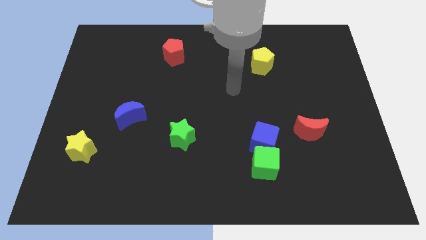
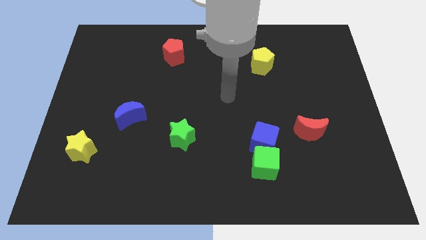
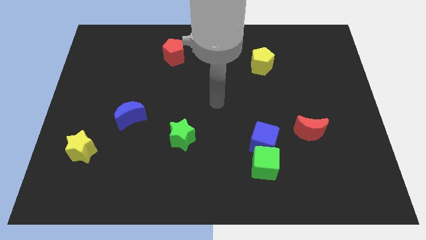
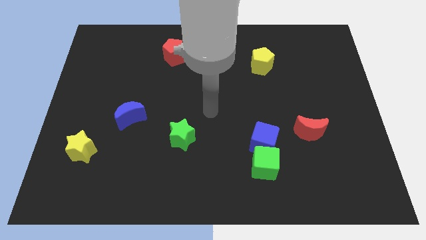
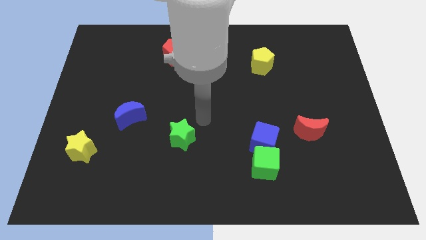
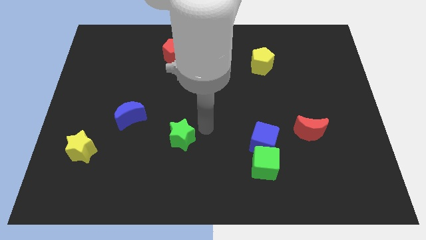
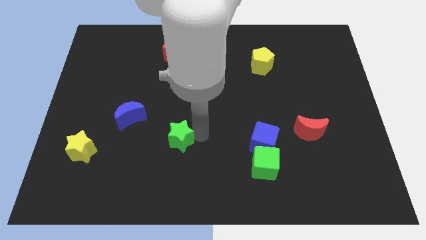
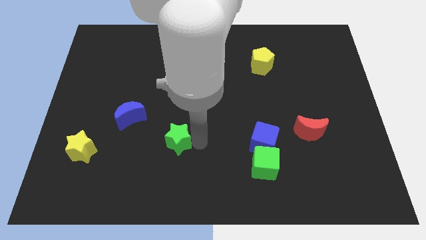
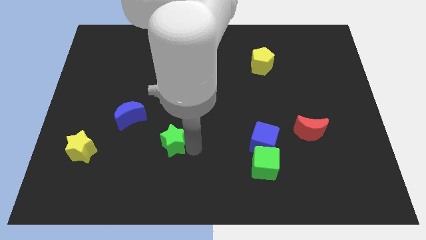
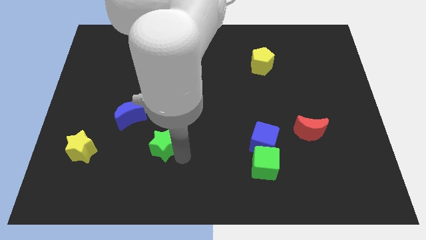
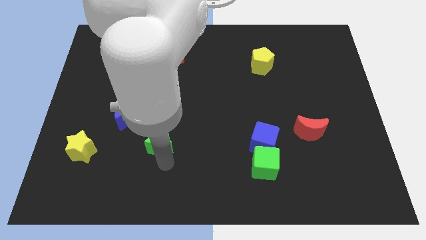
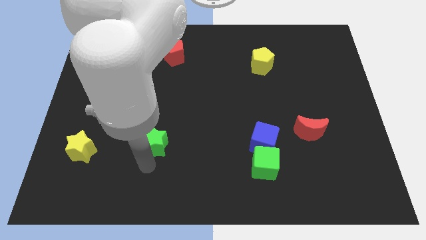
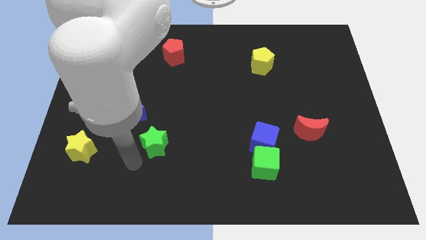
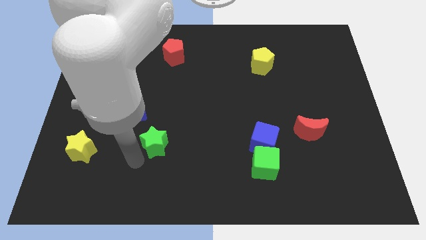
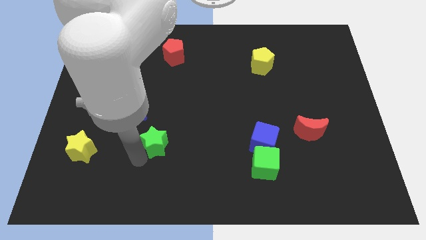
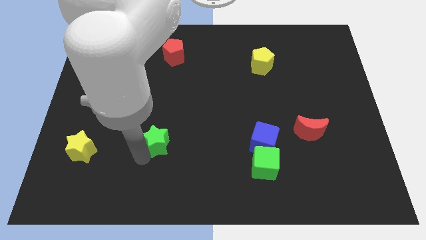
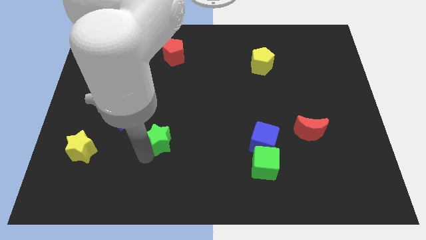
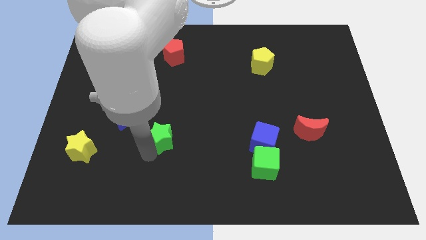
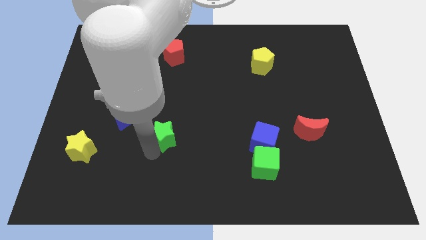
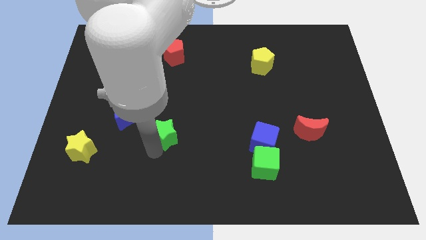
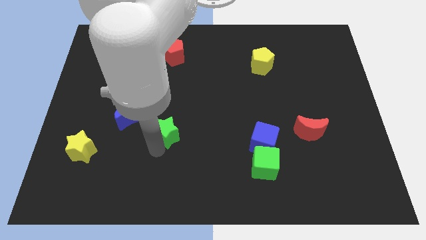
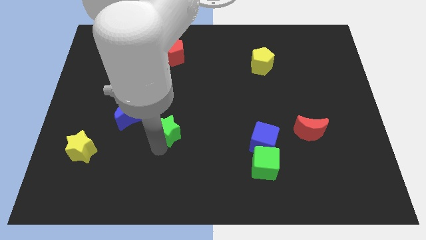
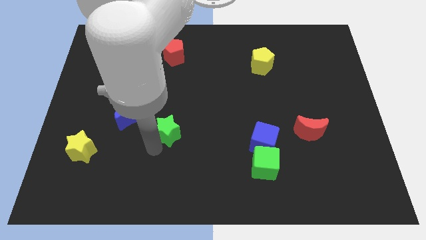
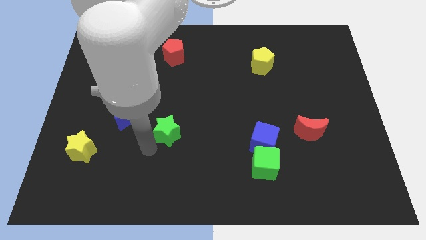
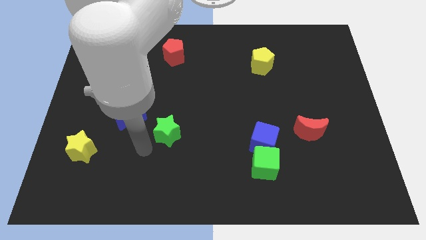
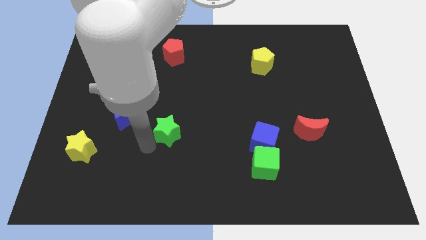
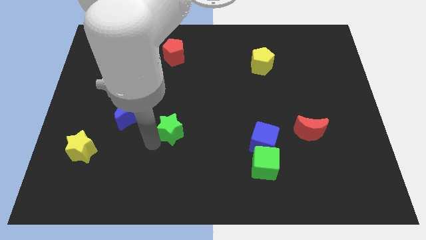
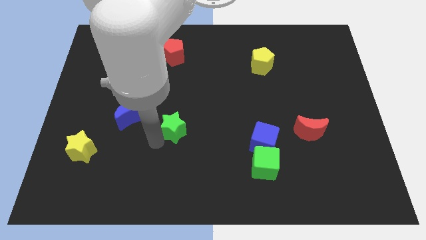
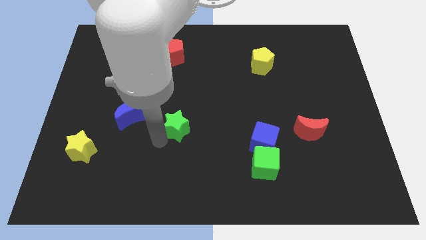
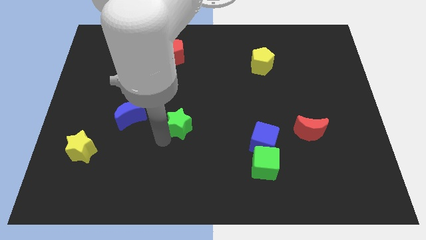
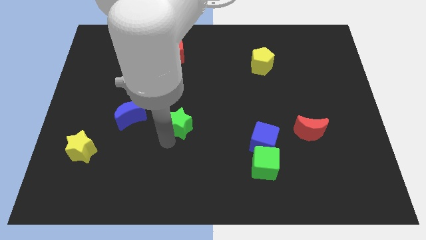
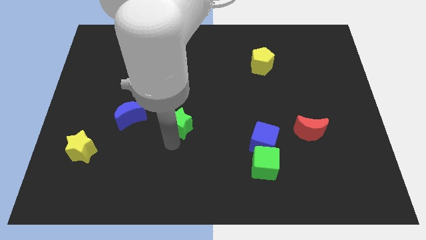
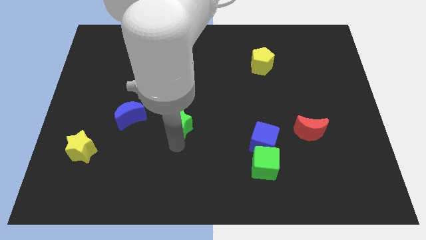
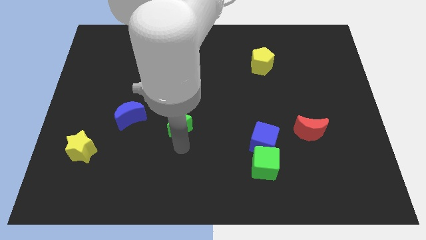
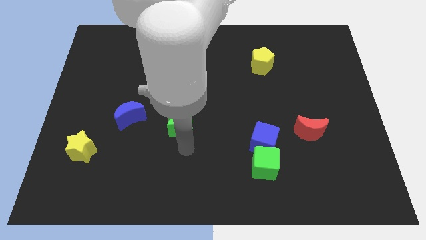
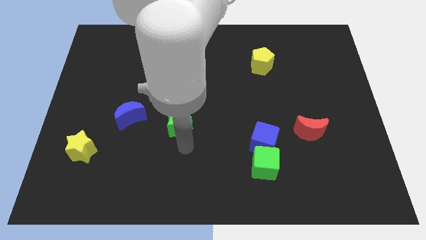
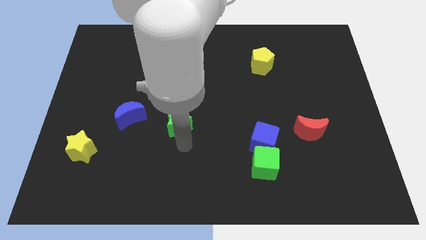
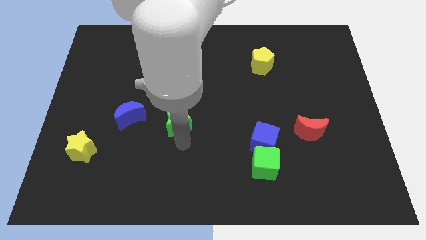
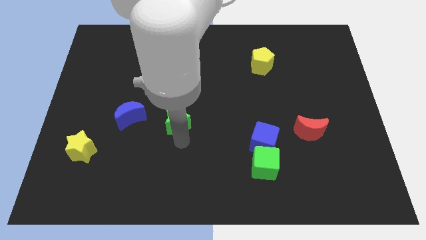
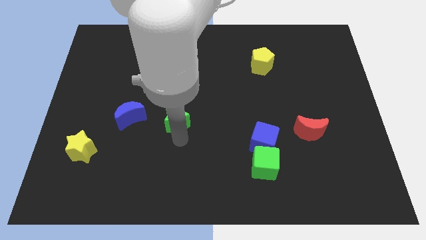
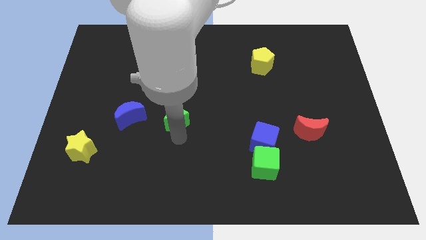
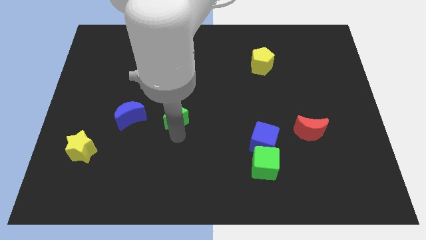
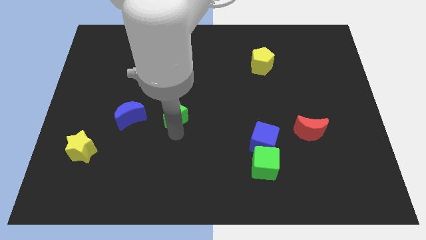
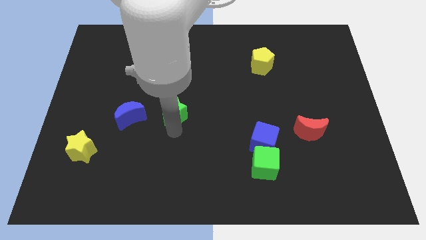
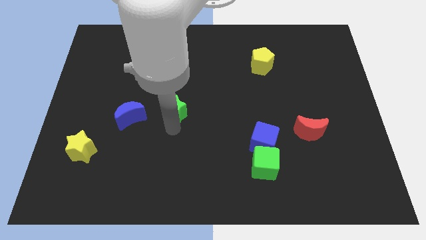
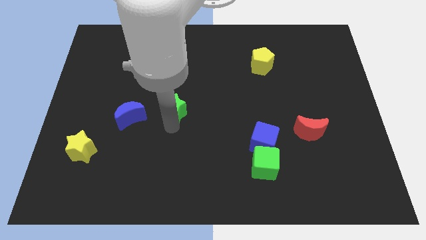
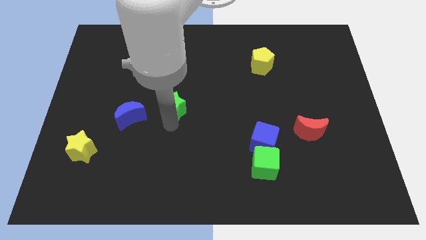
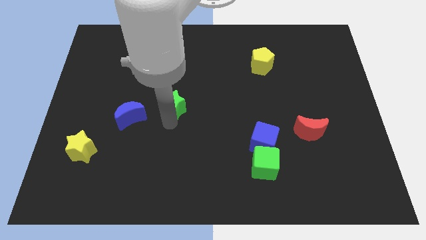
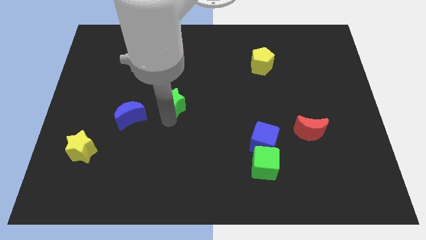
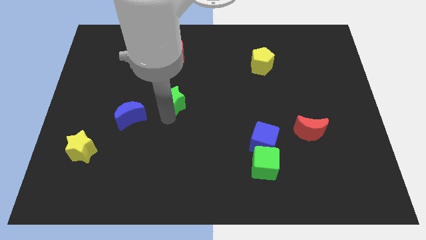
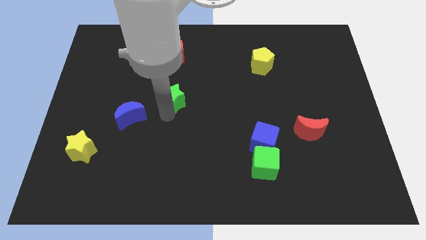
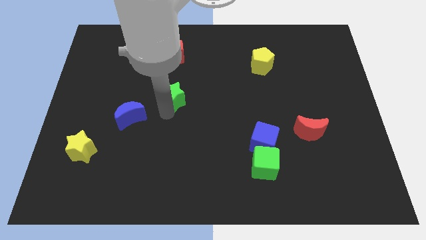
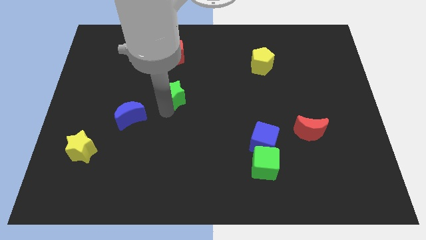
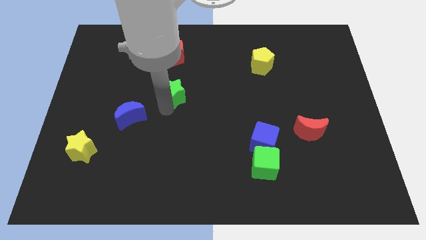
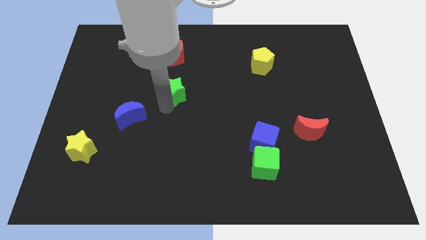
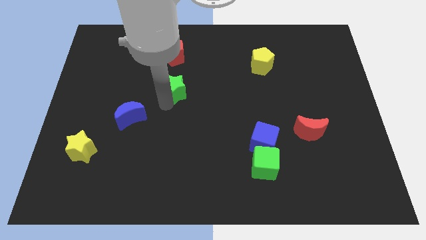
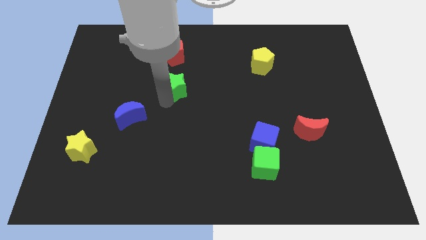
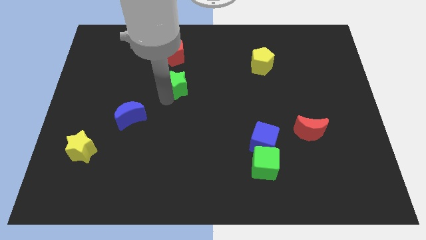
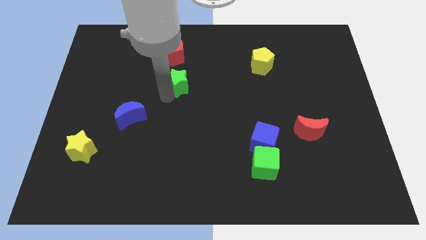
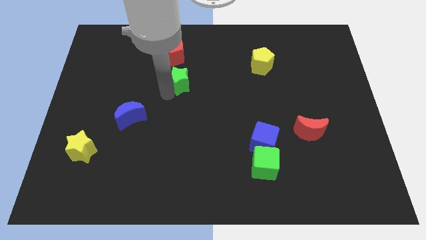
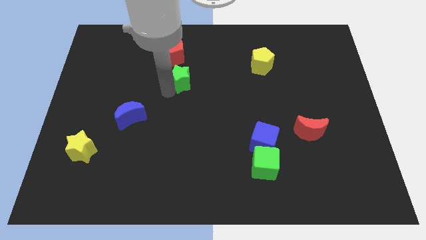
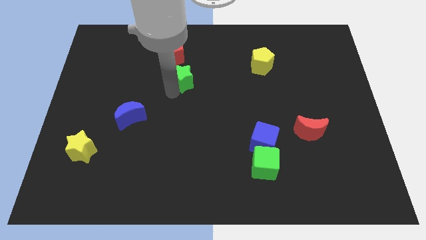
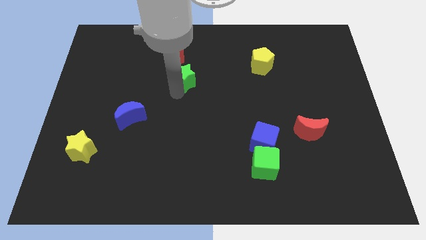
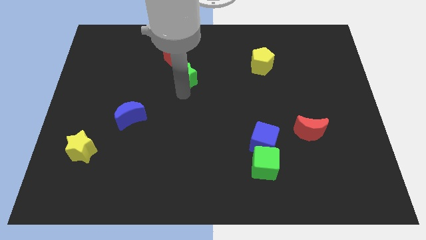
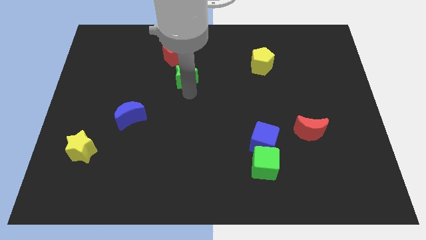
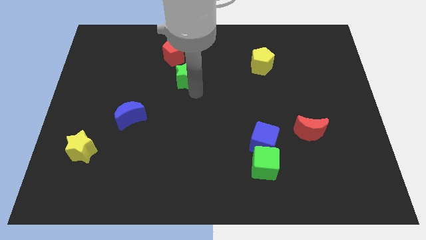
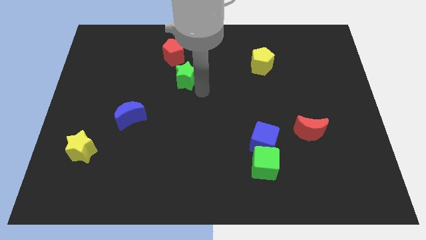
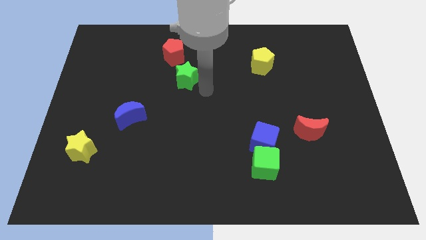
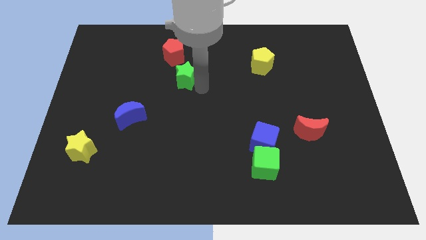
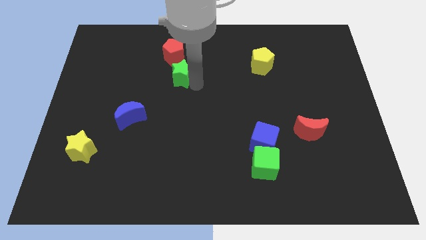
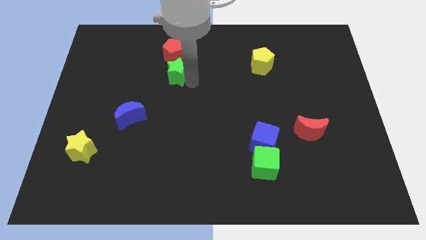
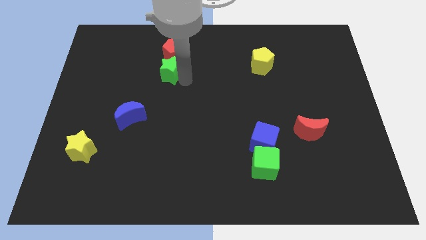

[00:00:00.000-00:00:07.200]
put the green star next to the red pentagon
